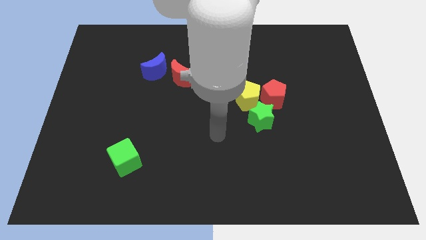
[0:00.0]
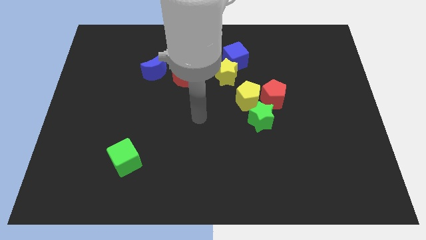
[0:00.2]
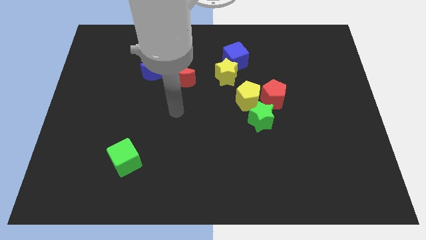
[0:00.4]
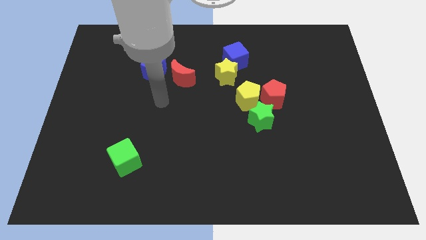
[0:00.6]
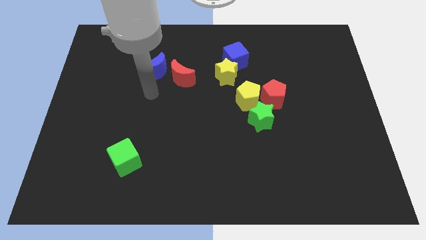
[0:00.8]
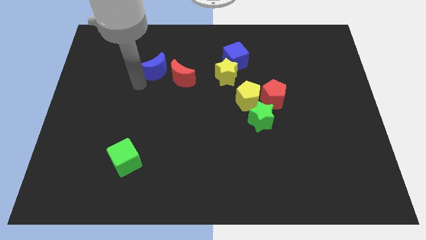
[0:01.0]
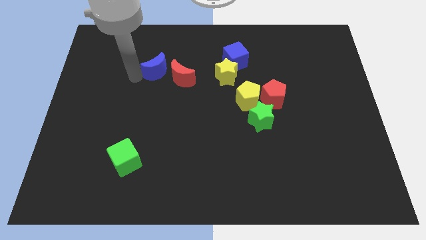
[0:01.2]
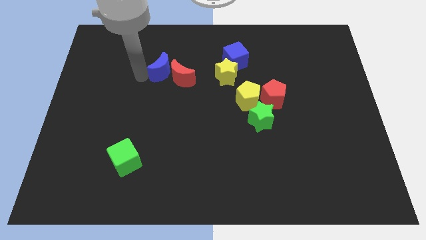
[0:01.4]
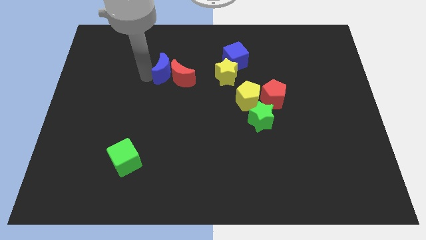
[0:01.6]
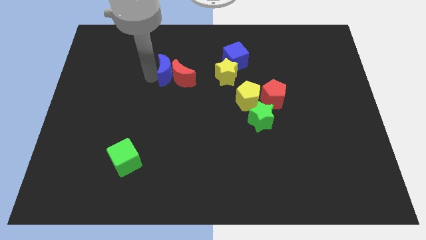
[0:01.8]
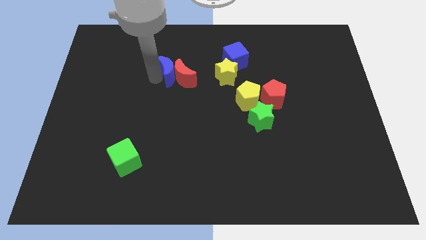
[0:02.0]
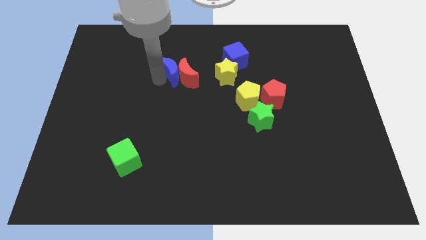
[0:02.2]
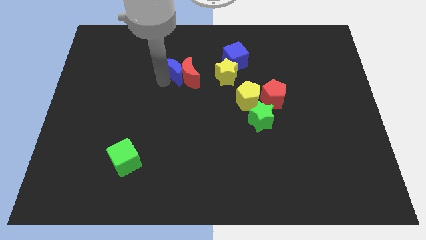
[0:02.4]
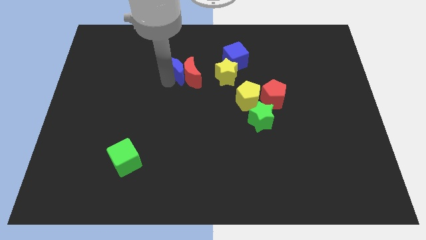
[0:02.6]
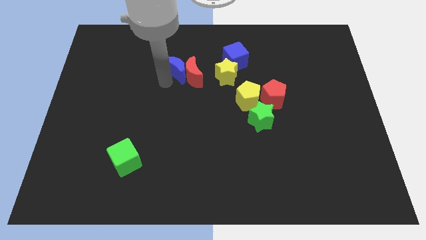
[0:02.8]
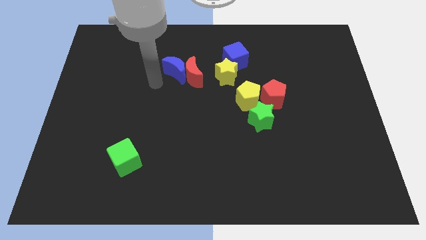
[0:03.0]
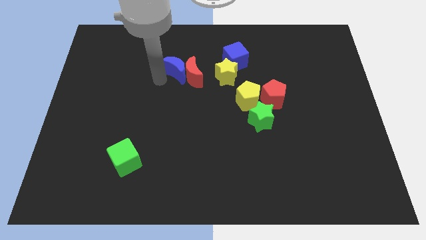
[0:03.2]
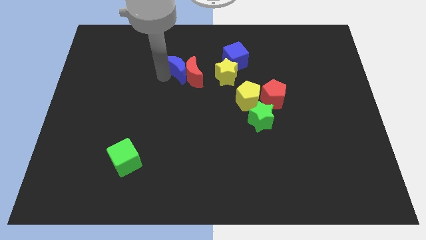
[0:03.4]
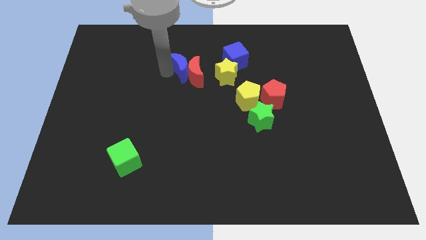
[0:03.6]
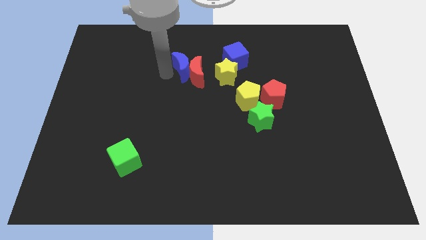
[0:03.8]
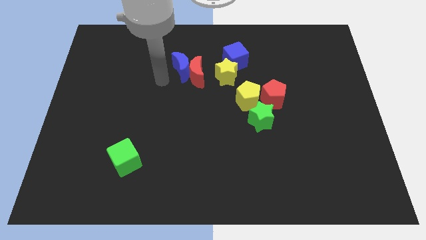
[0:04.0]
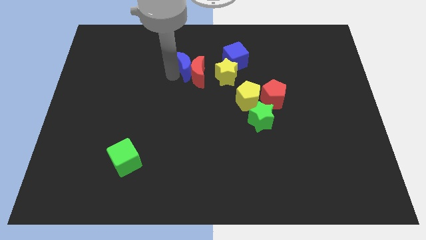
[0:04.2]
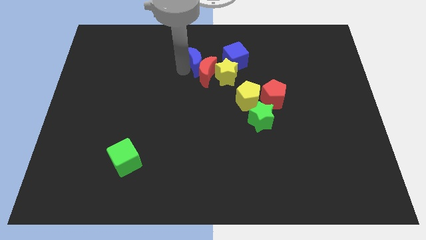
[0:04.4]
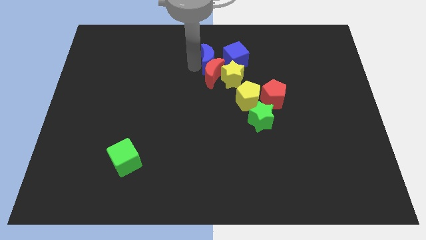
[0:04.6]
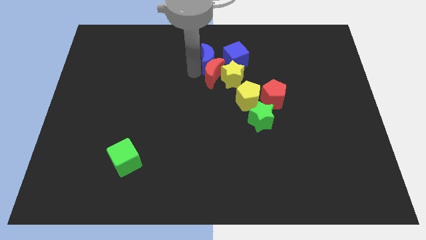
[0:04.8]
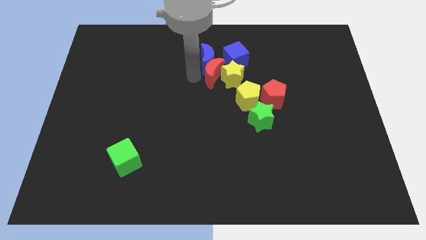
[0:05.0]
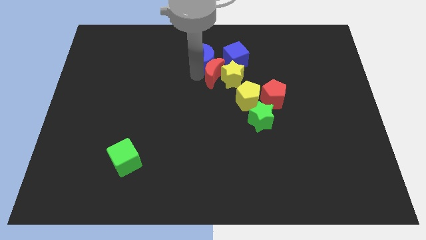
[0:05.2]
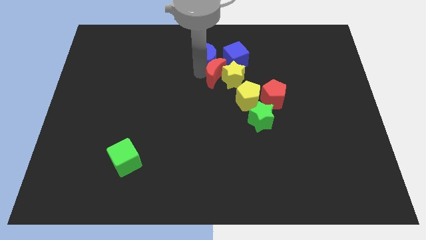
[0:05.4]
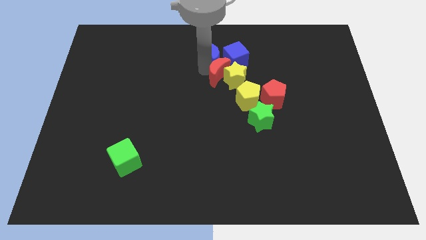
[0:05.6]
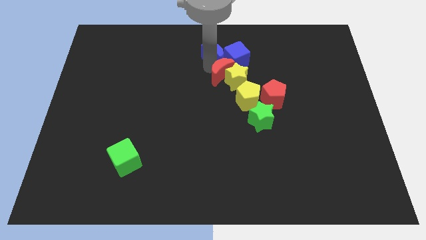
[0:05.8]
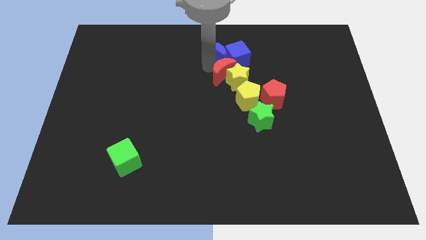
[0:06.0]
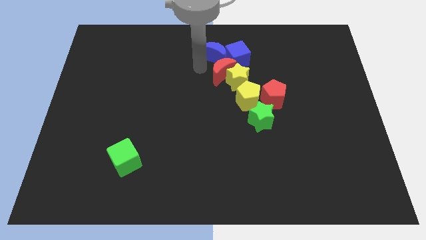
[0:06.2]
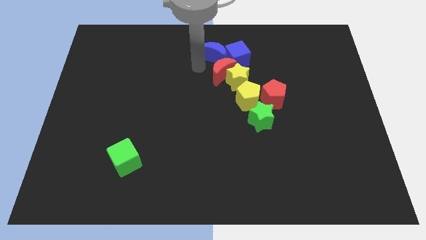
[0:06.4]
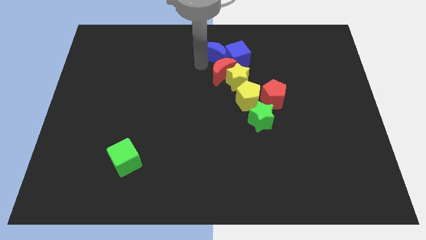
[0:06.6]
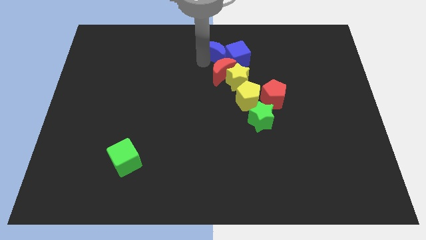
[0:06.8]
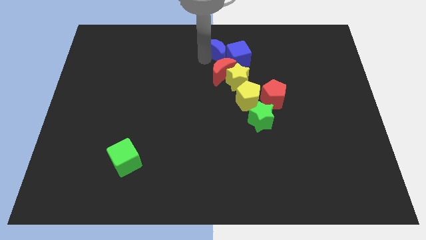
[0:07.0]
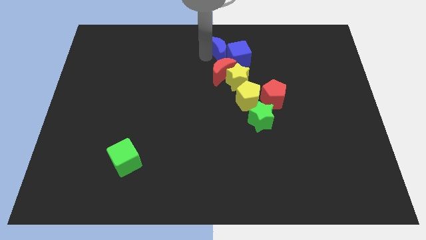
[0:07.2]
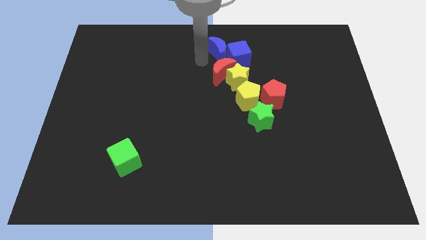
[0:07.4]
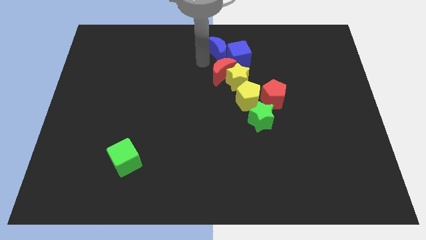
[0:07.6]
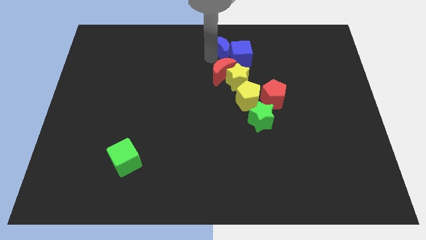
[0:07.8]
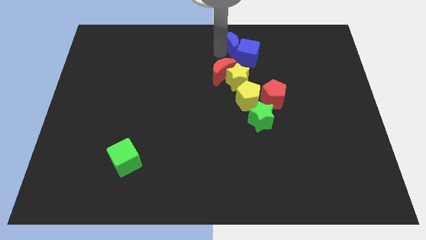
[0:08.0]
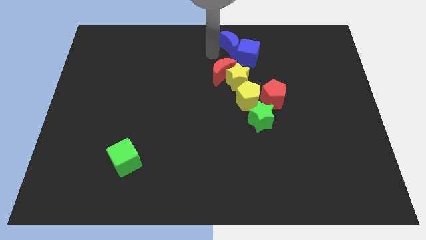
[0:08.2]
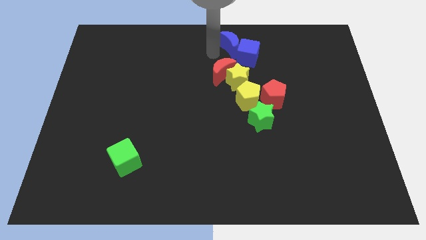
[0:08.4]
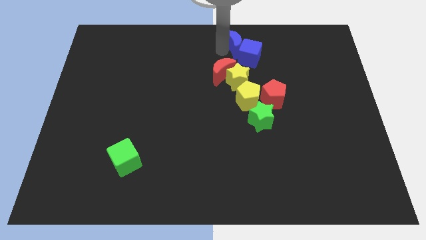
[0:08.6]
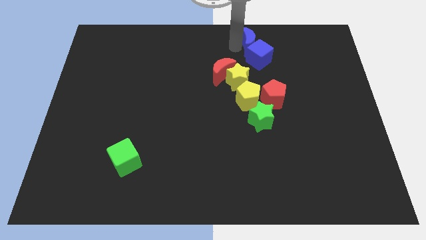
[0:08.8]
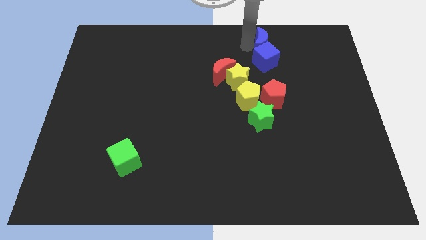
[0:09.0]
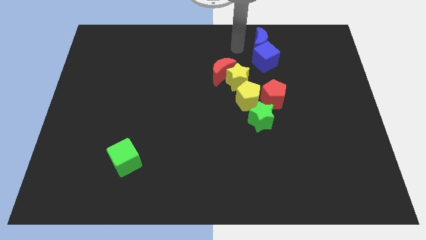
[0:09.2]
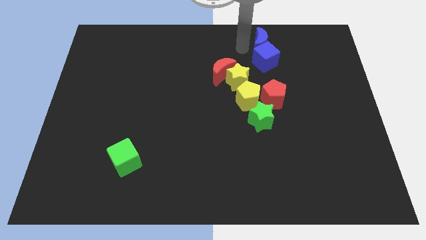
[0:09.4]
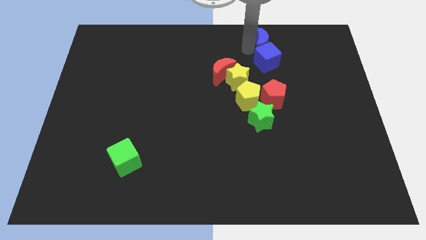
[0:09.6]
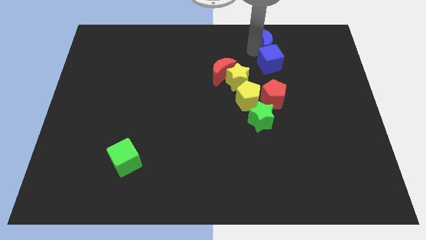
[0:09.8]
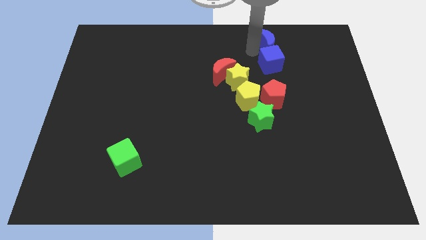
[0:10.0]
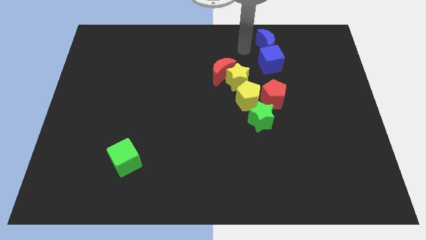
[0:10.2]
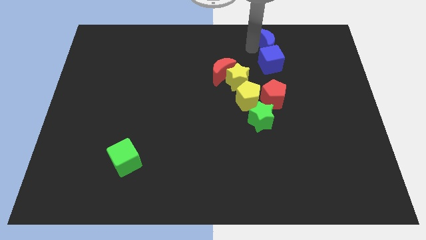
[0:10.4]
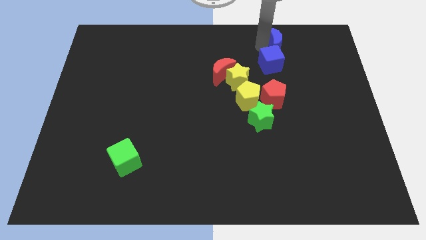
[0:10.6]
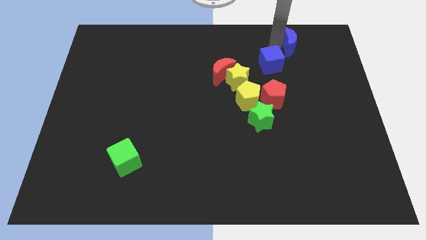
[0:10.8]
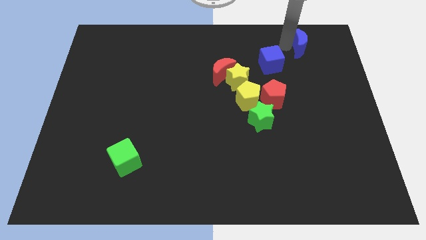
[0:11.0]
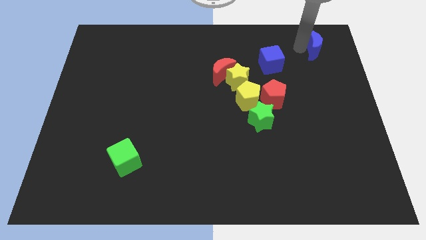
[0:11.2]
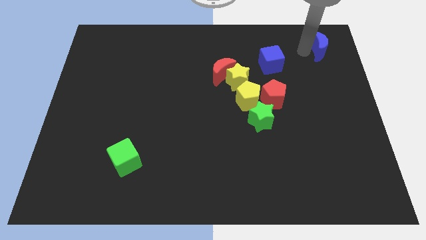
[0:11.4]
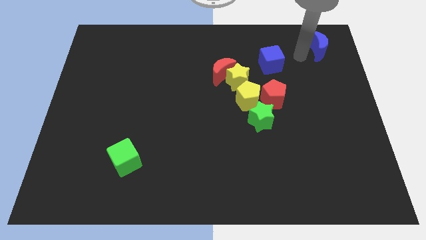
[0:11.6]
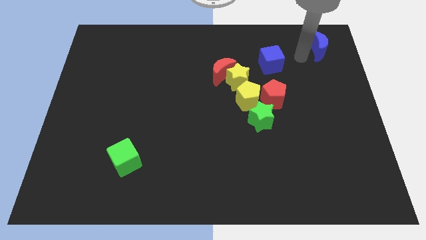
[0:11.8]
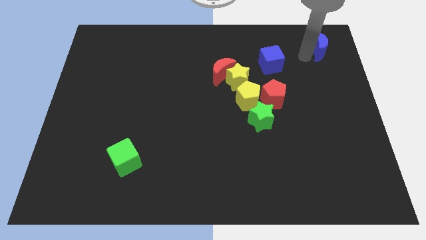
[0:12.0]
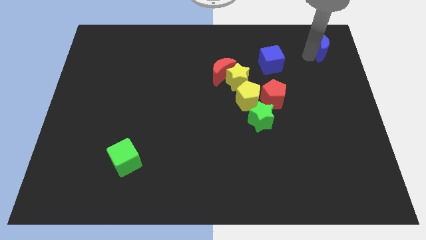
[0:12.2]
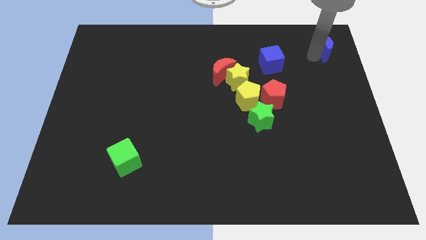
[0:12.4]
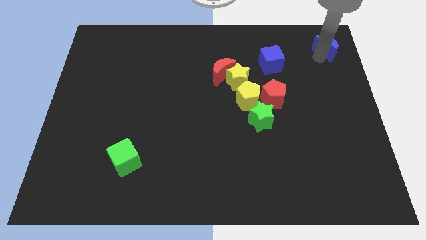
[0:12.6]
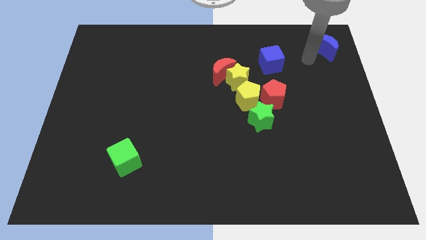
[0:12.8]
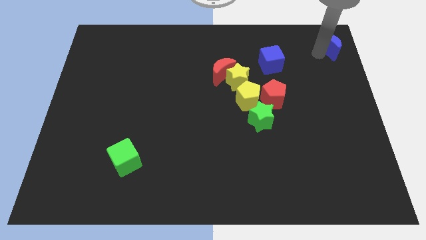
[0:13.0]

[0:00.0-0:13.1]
put the blue moon to the top right of the board
